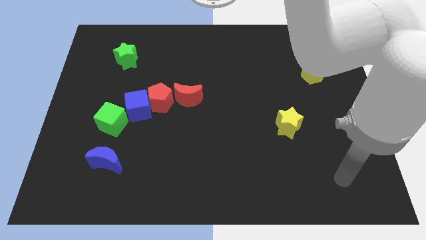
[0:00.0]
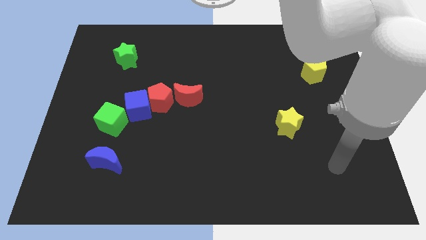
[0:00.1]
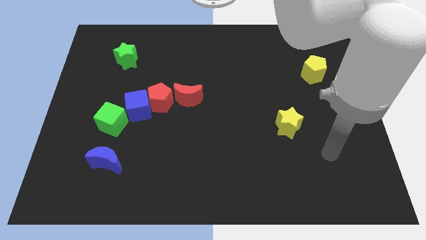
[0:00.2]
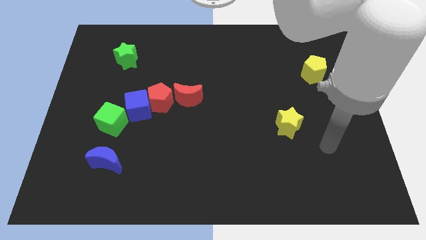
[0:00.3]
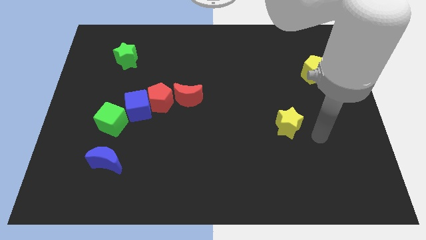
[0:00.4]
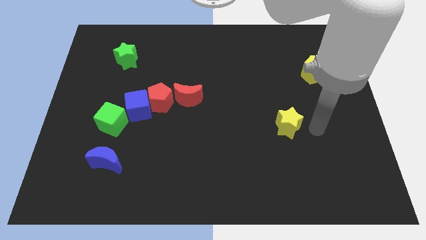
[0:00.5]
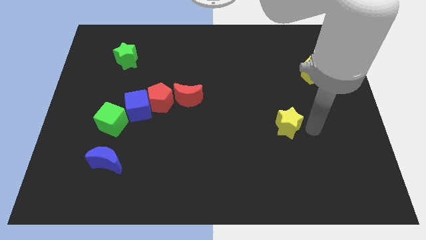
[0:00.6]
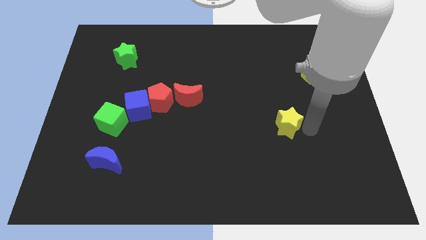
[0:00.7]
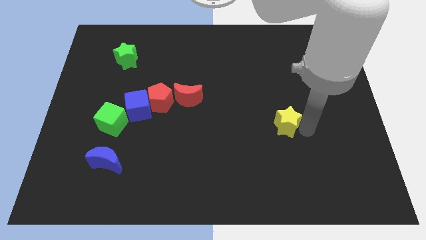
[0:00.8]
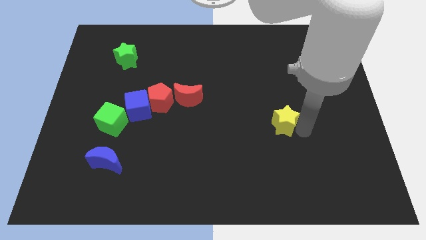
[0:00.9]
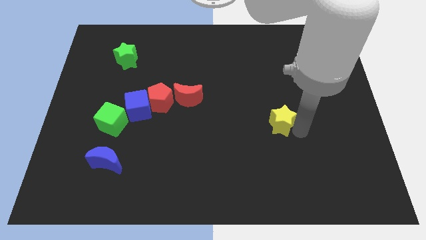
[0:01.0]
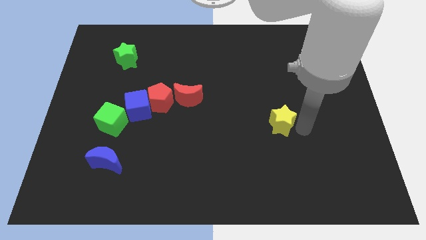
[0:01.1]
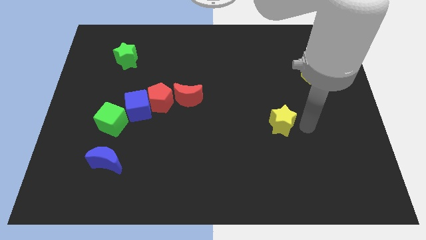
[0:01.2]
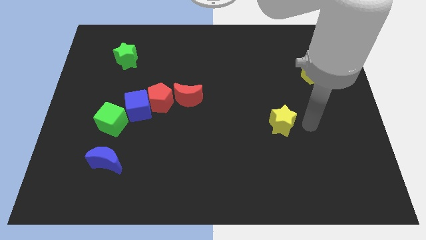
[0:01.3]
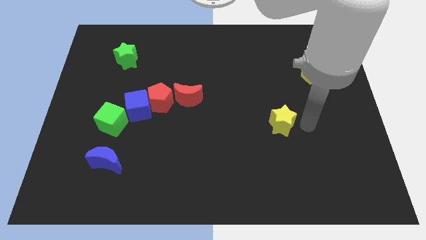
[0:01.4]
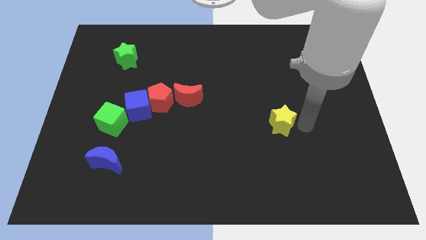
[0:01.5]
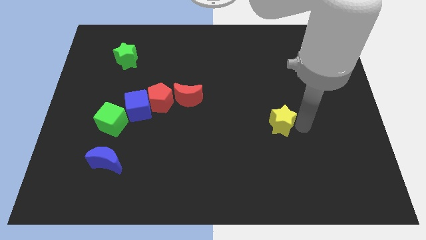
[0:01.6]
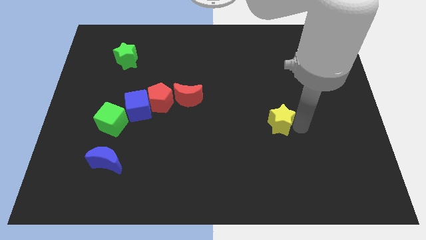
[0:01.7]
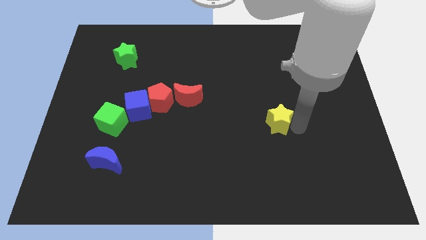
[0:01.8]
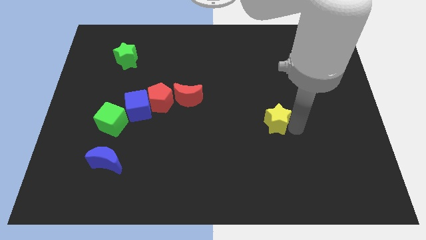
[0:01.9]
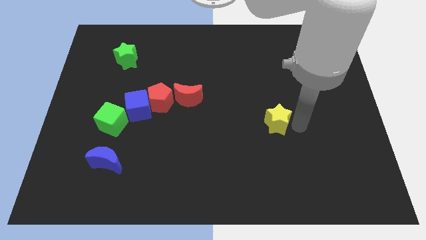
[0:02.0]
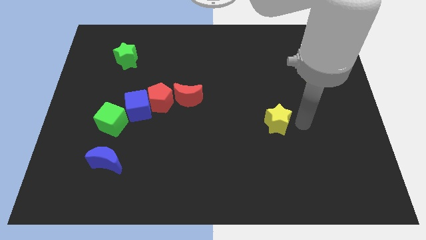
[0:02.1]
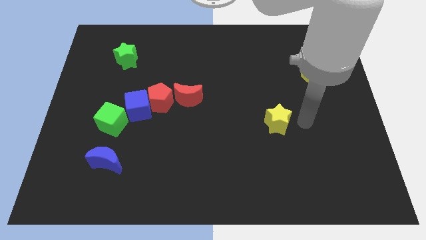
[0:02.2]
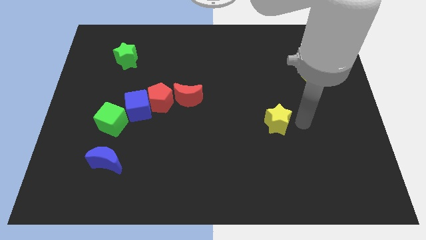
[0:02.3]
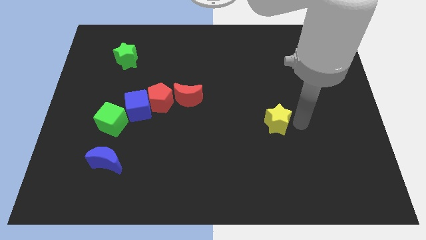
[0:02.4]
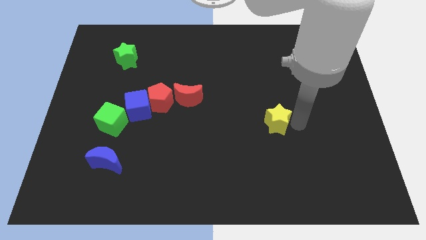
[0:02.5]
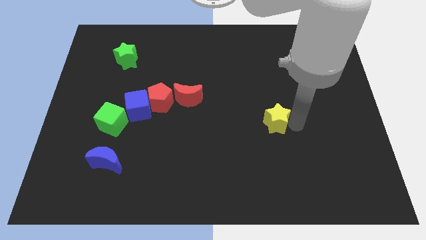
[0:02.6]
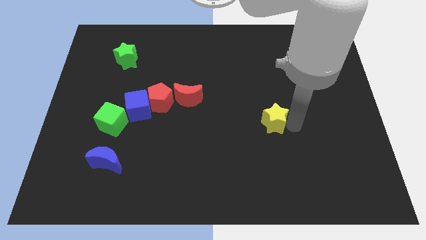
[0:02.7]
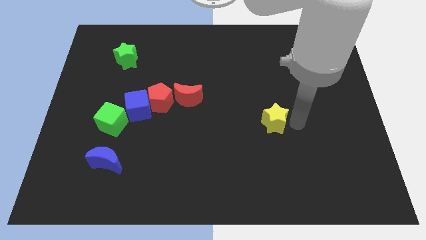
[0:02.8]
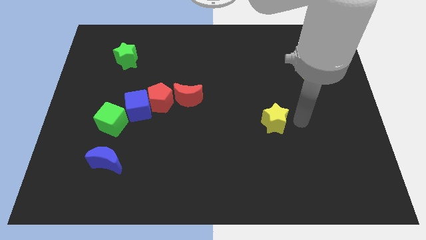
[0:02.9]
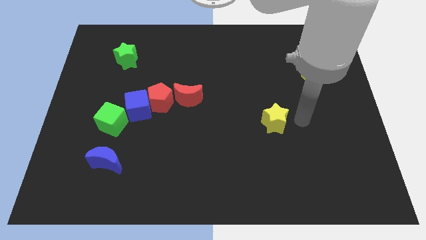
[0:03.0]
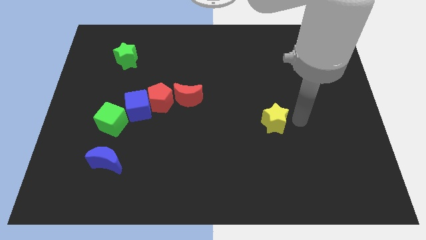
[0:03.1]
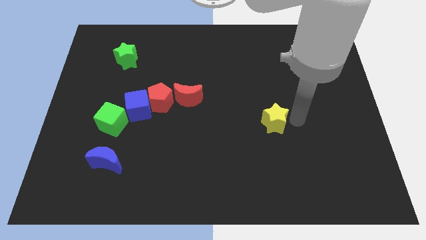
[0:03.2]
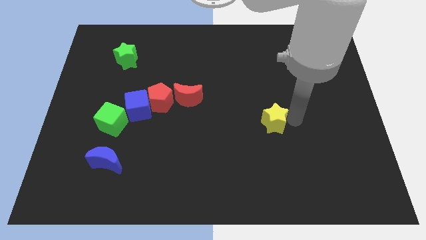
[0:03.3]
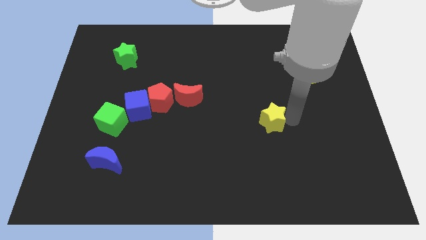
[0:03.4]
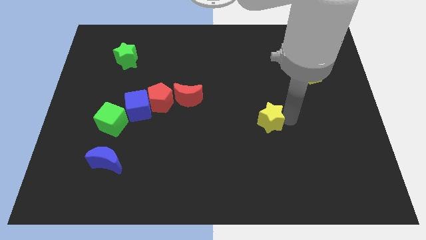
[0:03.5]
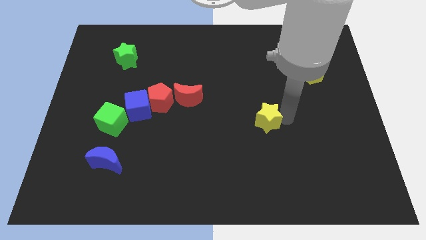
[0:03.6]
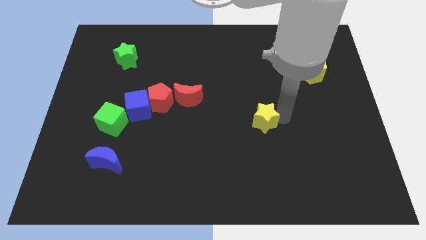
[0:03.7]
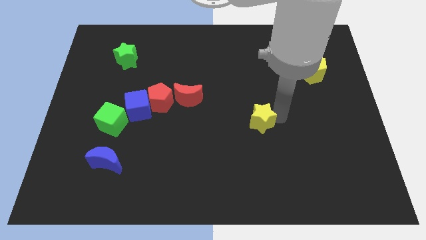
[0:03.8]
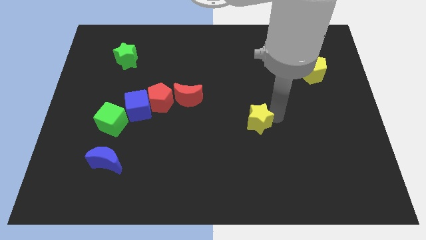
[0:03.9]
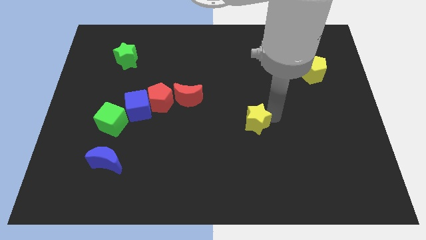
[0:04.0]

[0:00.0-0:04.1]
move the yellow star to the left somewhat

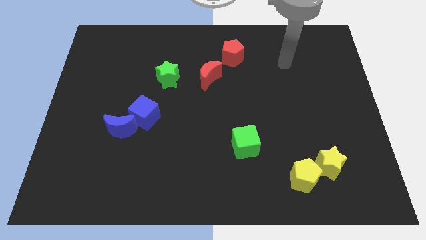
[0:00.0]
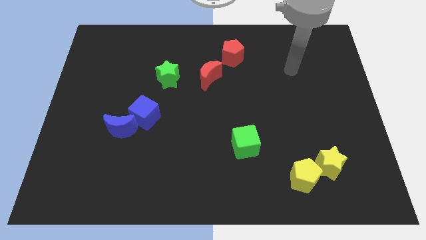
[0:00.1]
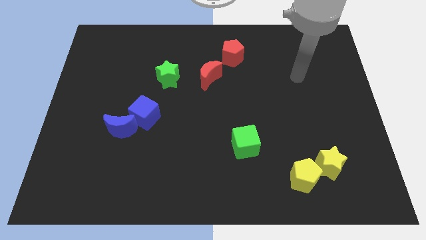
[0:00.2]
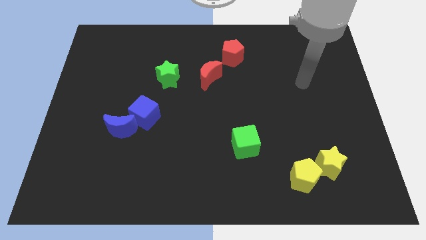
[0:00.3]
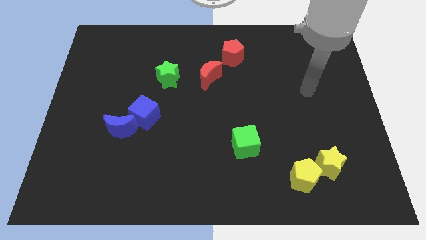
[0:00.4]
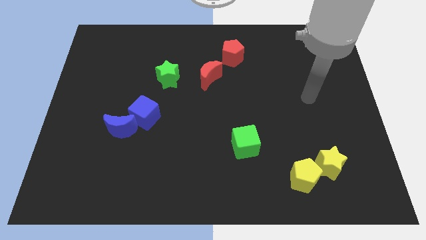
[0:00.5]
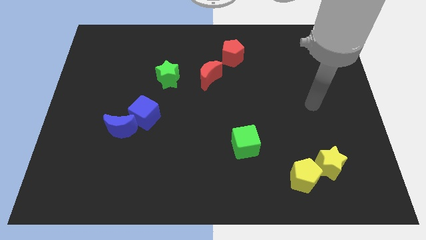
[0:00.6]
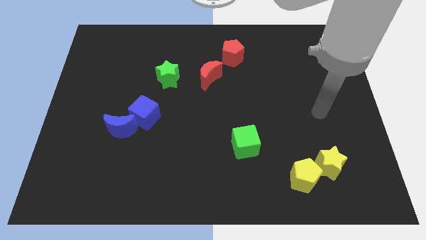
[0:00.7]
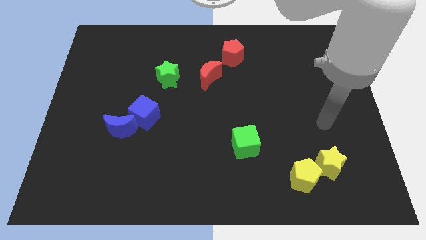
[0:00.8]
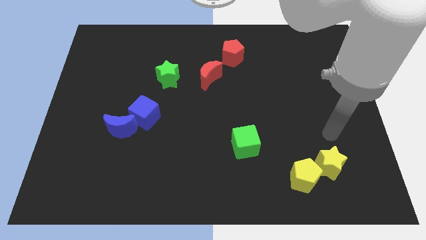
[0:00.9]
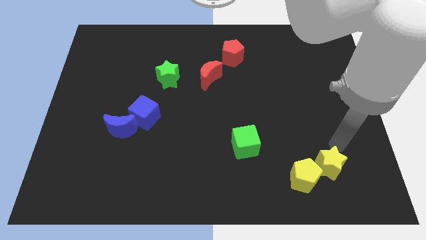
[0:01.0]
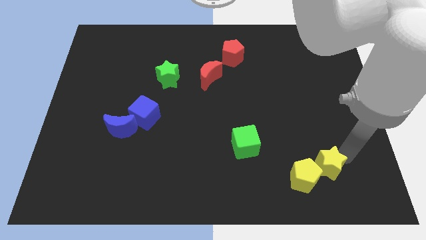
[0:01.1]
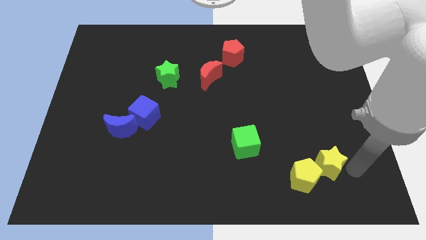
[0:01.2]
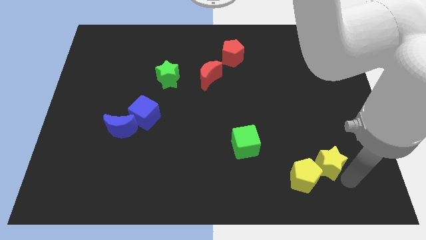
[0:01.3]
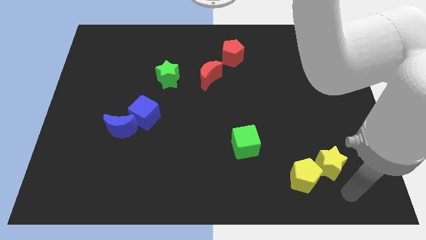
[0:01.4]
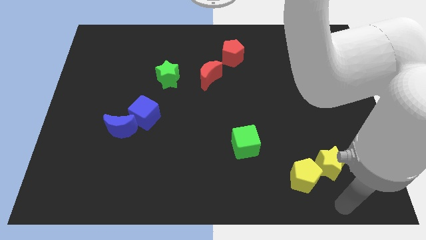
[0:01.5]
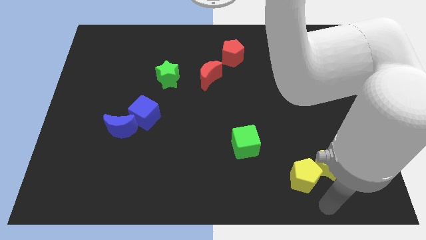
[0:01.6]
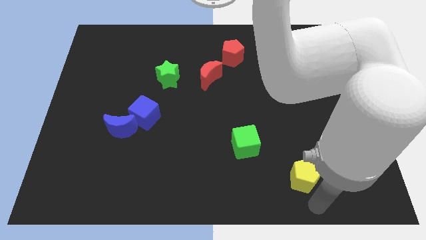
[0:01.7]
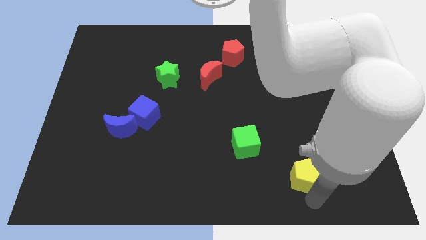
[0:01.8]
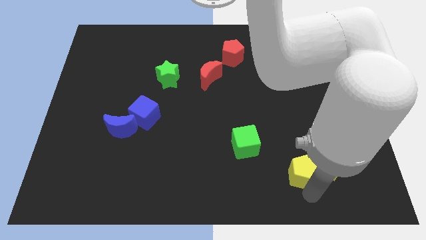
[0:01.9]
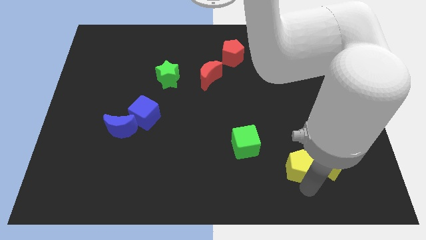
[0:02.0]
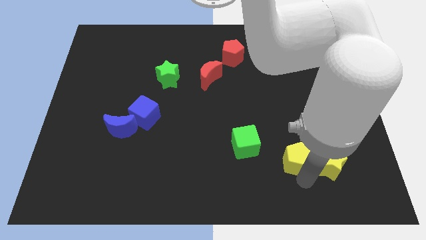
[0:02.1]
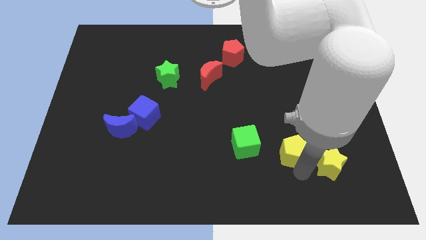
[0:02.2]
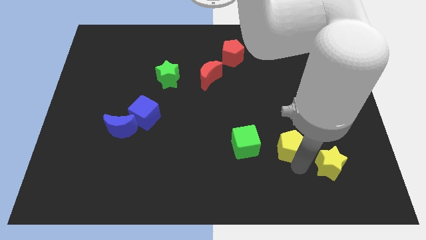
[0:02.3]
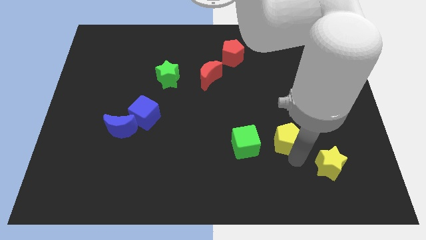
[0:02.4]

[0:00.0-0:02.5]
slide the yellow pentagon somewhat upwards and then left

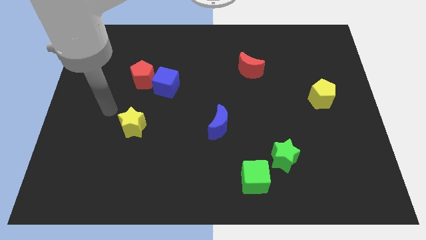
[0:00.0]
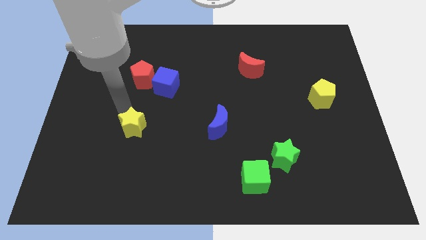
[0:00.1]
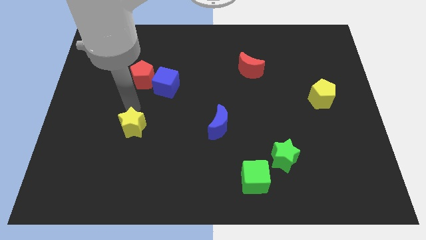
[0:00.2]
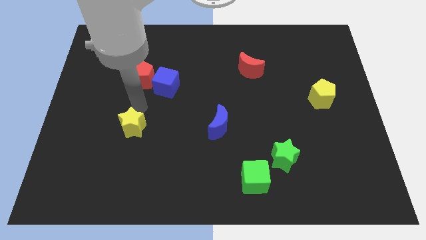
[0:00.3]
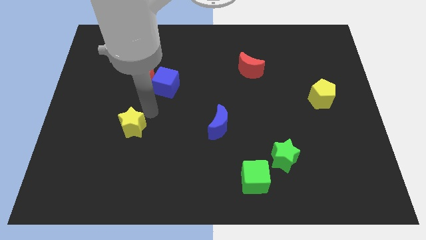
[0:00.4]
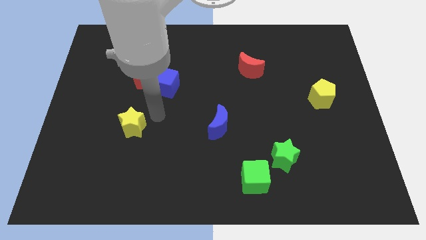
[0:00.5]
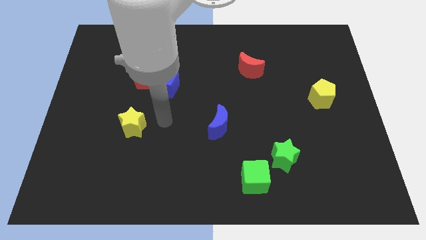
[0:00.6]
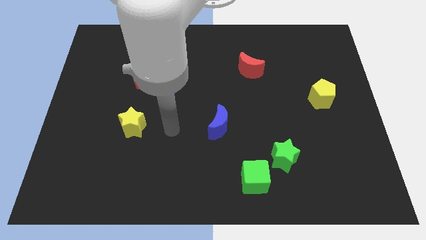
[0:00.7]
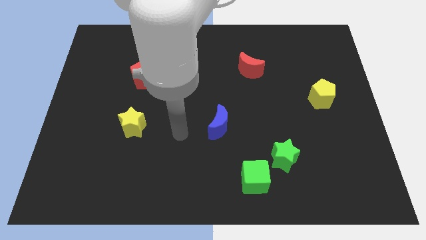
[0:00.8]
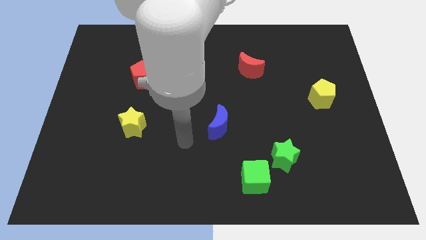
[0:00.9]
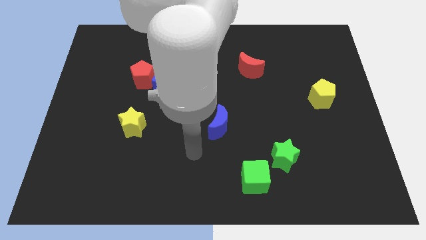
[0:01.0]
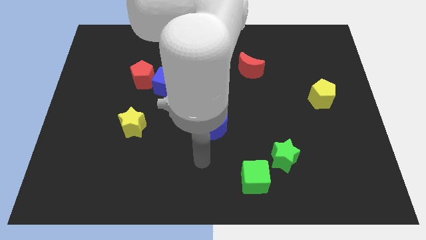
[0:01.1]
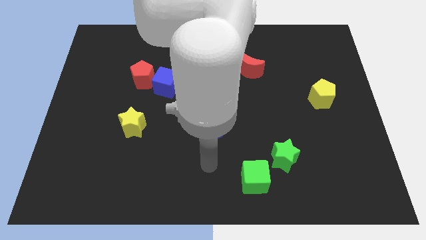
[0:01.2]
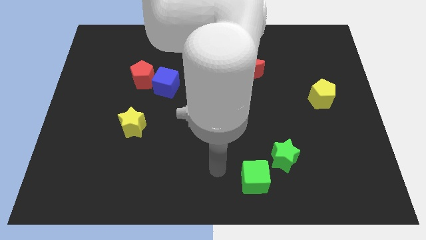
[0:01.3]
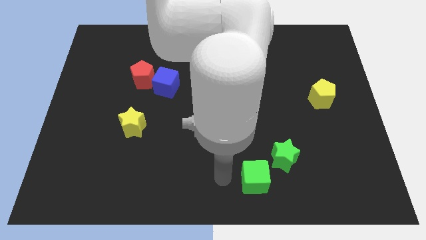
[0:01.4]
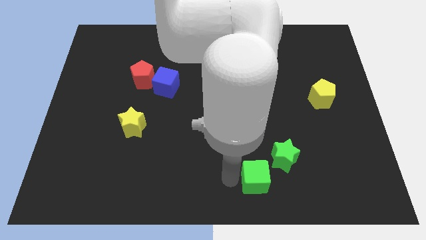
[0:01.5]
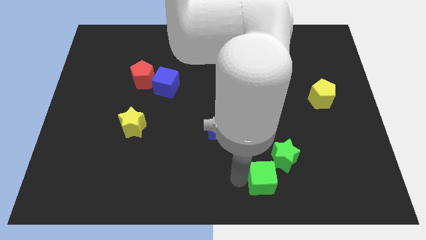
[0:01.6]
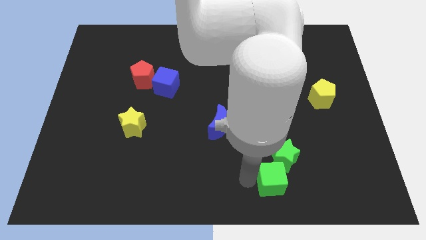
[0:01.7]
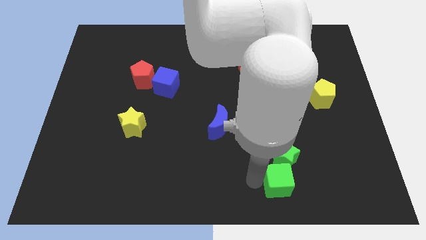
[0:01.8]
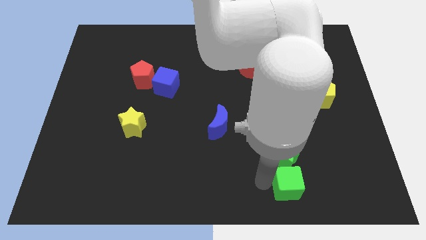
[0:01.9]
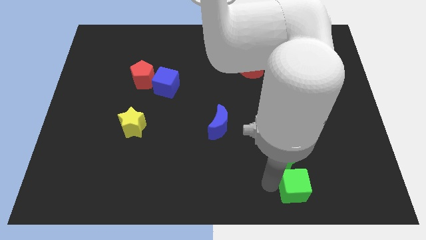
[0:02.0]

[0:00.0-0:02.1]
push the green cube somewhat right
